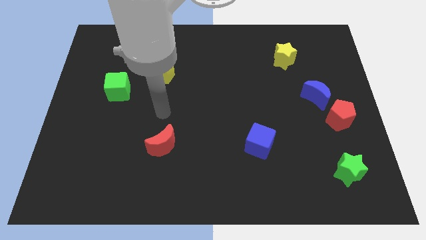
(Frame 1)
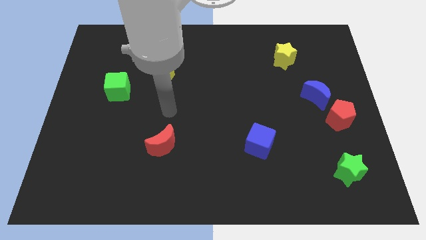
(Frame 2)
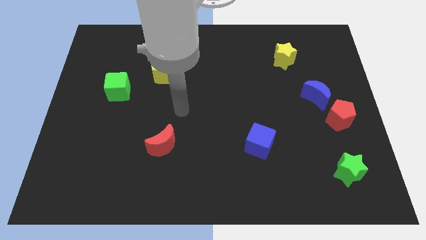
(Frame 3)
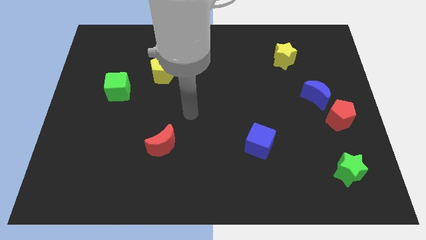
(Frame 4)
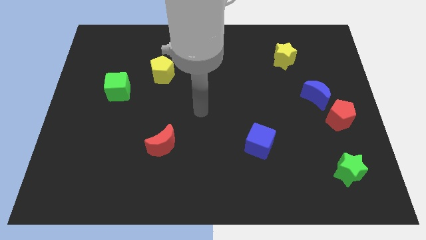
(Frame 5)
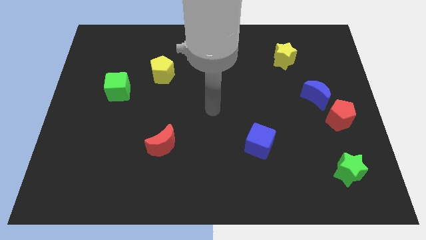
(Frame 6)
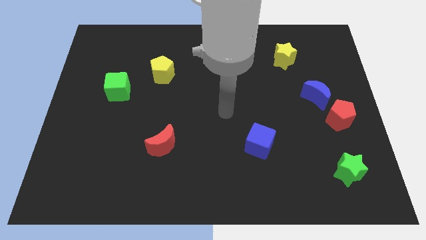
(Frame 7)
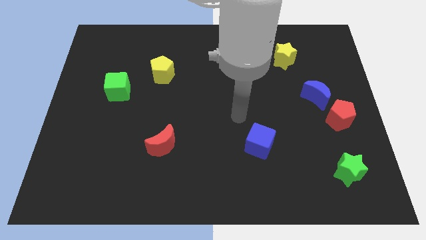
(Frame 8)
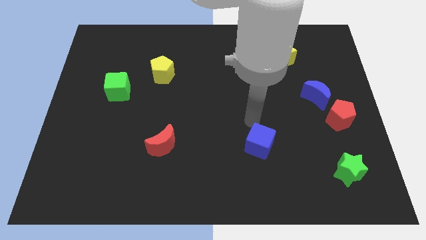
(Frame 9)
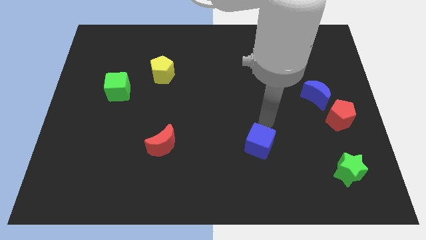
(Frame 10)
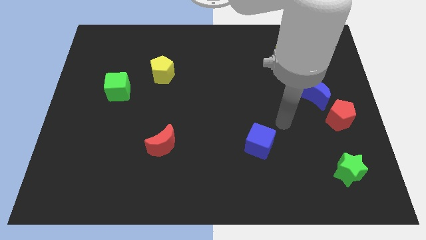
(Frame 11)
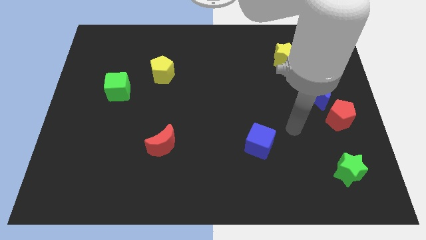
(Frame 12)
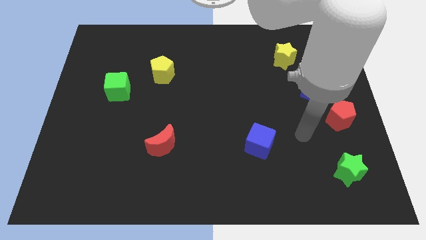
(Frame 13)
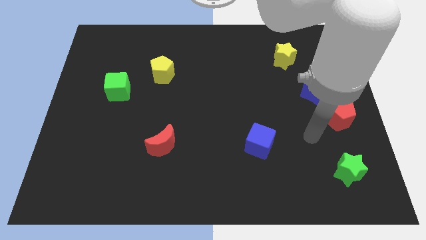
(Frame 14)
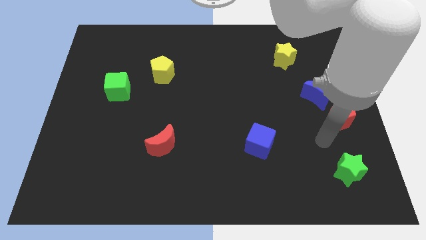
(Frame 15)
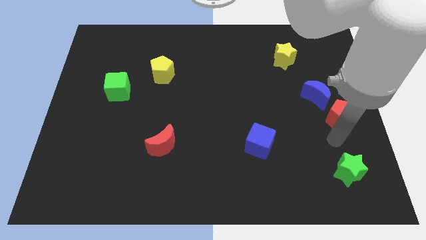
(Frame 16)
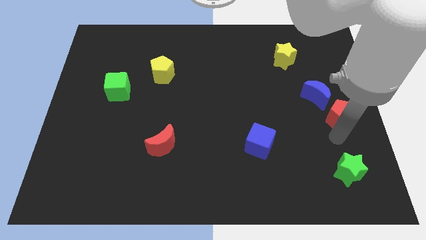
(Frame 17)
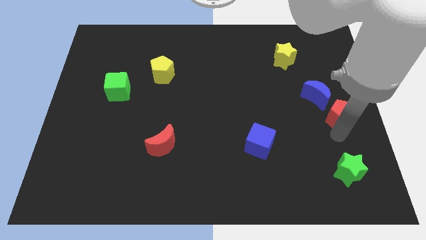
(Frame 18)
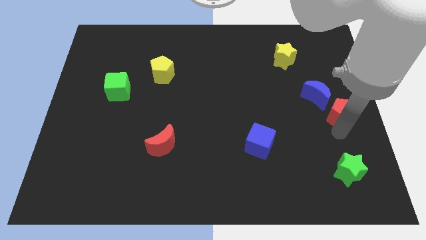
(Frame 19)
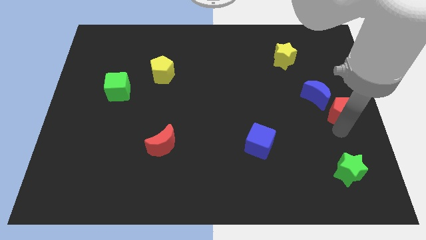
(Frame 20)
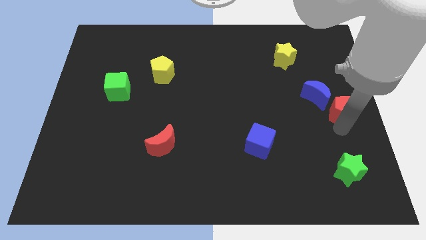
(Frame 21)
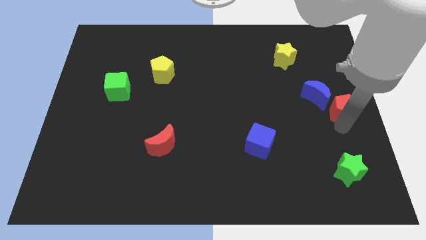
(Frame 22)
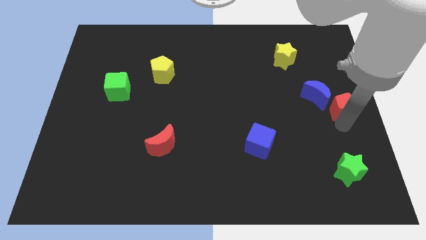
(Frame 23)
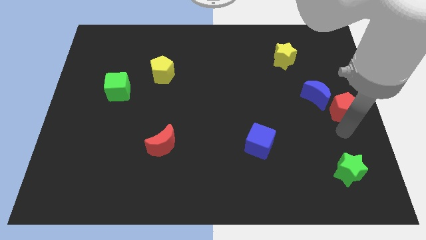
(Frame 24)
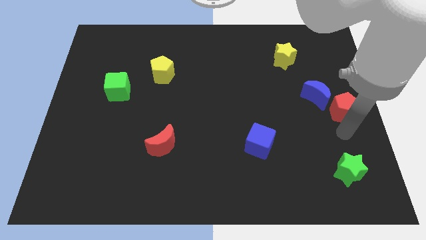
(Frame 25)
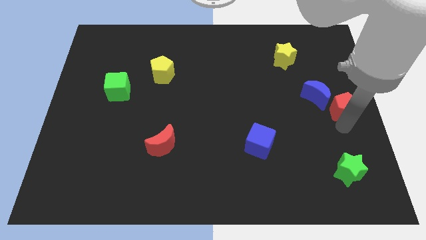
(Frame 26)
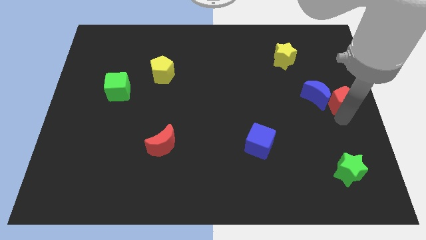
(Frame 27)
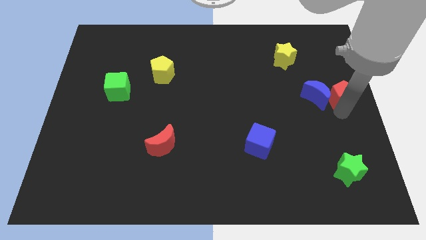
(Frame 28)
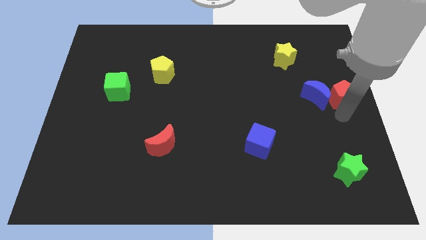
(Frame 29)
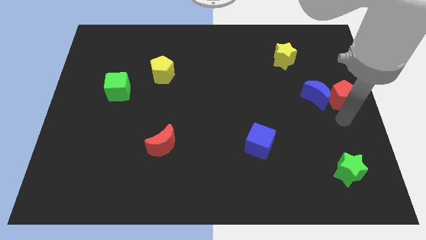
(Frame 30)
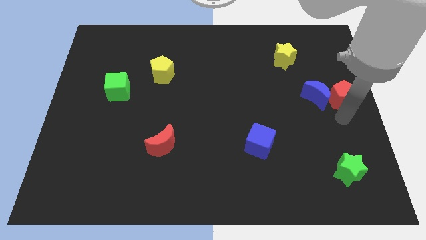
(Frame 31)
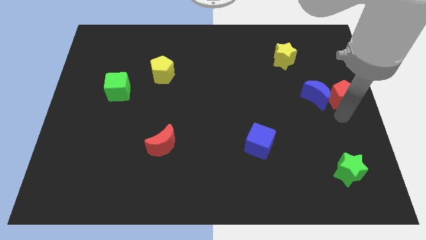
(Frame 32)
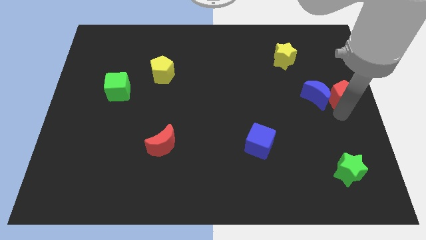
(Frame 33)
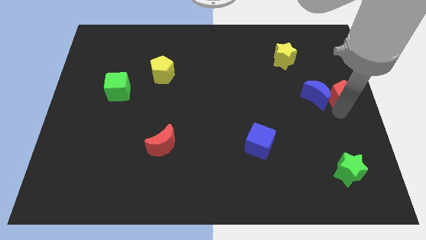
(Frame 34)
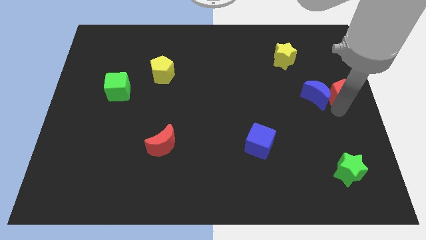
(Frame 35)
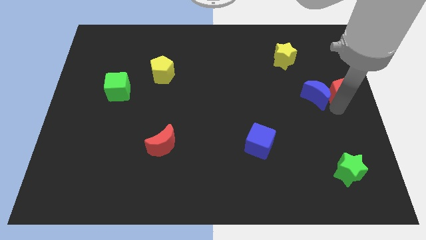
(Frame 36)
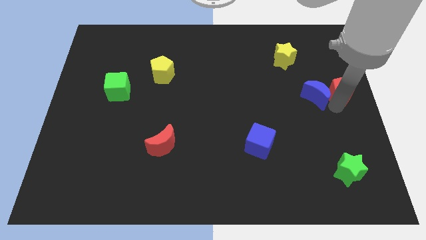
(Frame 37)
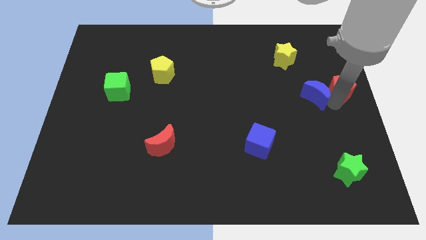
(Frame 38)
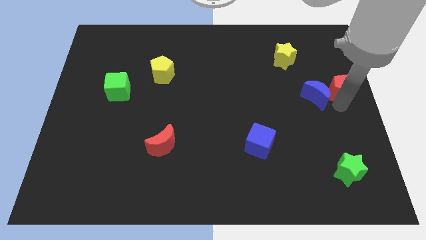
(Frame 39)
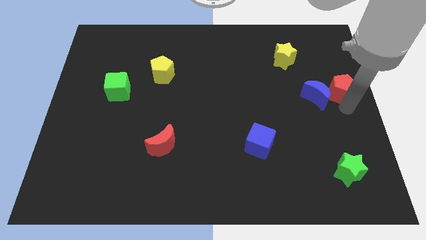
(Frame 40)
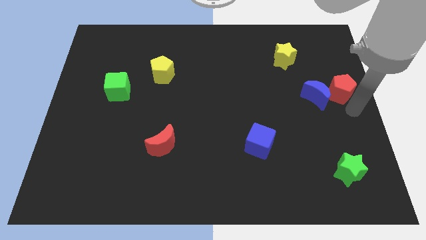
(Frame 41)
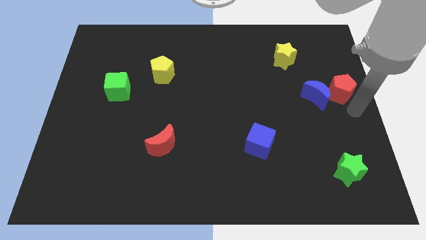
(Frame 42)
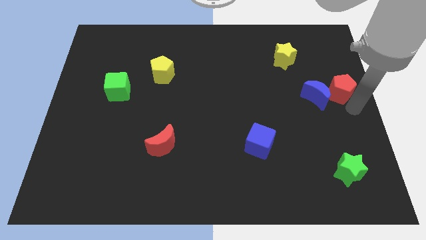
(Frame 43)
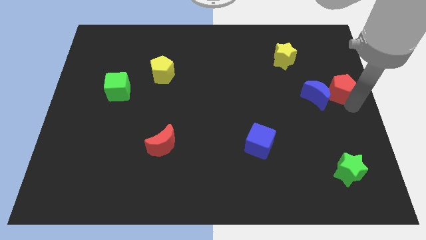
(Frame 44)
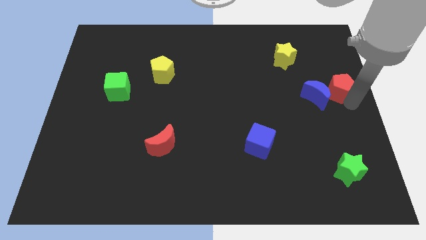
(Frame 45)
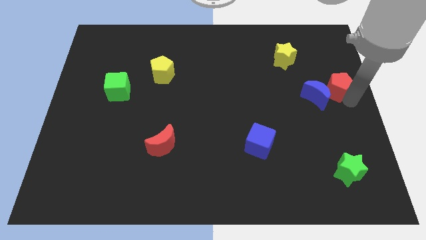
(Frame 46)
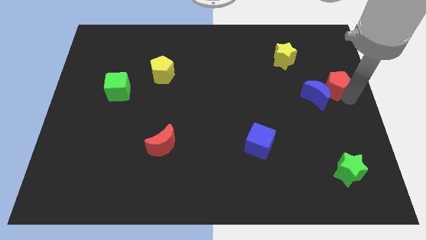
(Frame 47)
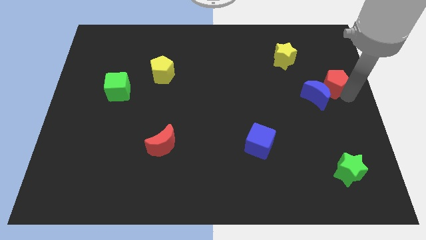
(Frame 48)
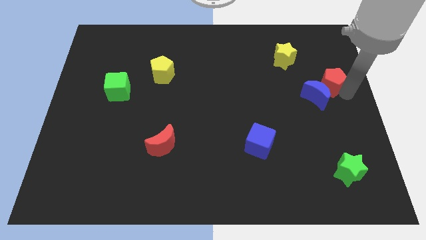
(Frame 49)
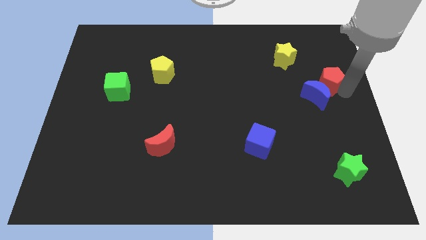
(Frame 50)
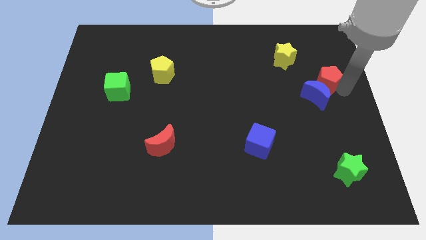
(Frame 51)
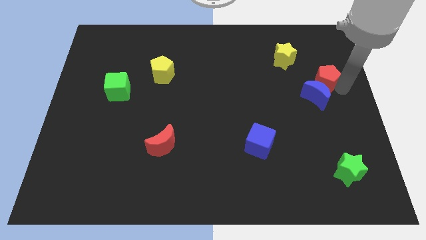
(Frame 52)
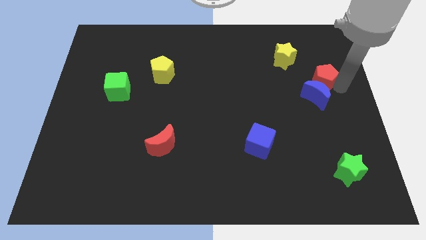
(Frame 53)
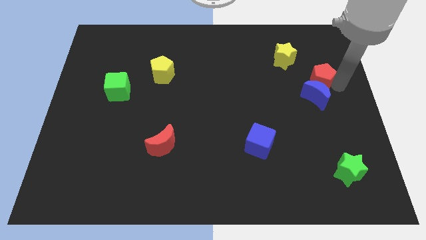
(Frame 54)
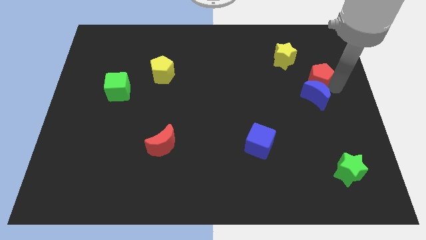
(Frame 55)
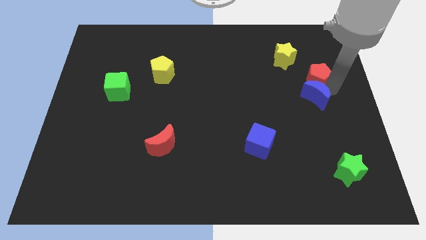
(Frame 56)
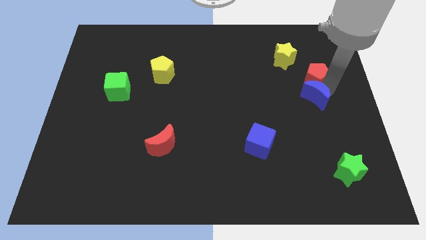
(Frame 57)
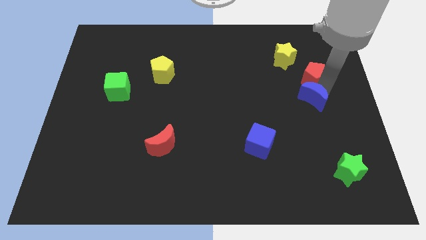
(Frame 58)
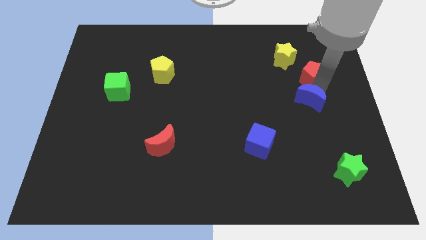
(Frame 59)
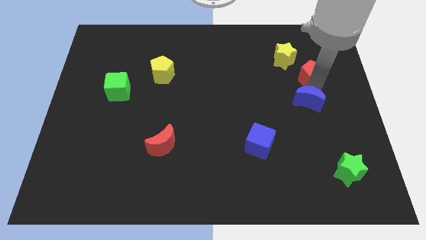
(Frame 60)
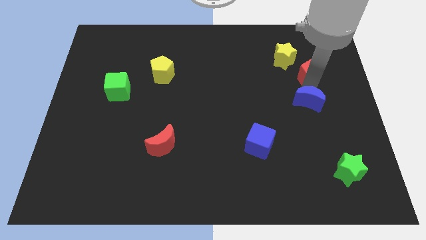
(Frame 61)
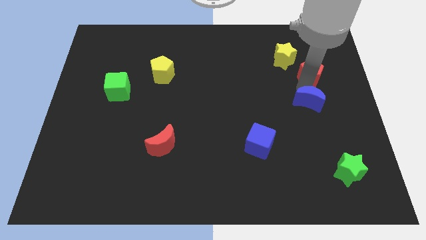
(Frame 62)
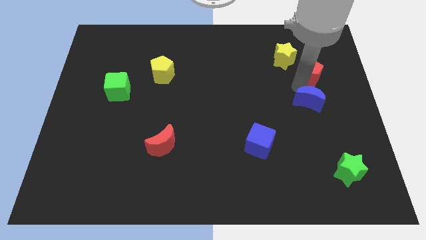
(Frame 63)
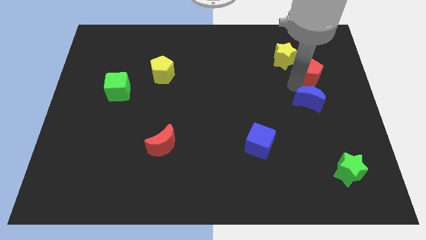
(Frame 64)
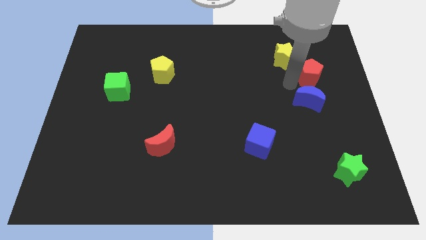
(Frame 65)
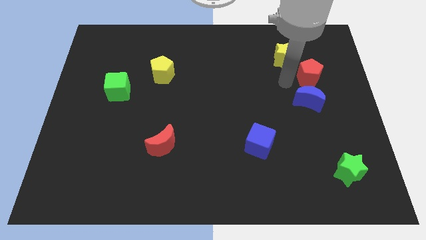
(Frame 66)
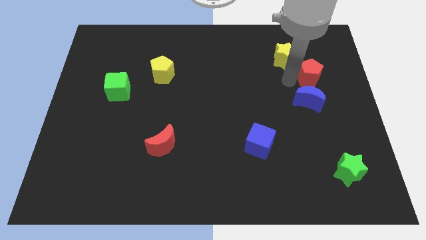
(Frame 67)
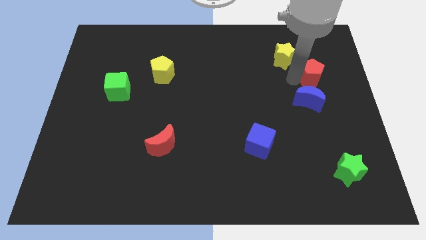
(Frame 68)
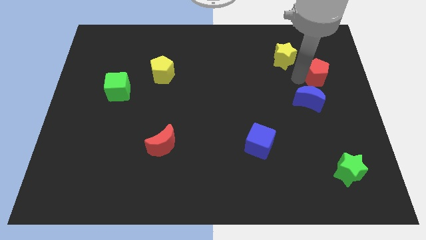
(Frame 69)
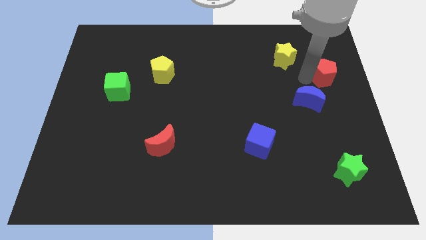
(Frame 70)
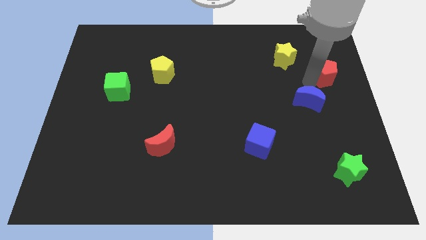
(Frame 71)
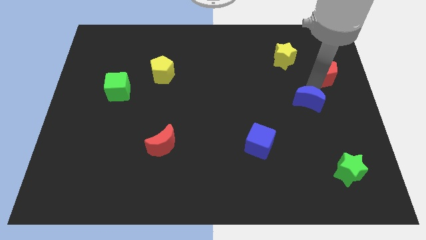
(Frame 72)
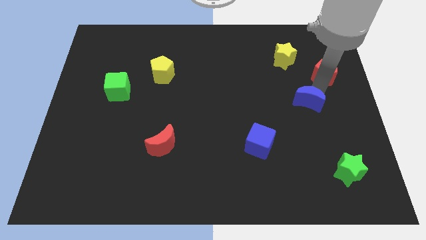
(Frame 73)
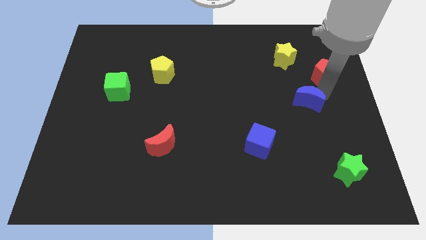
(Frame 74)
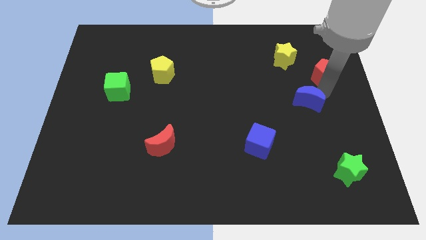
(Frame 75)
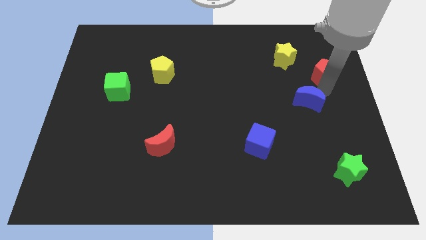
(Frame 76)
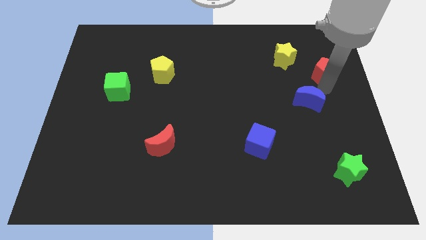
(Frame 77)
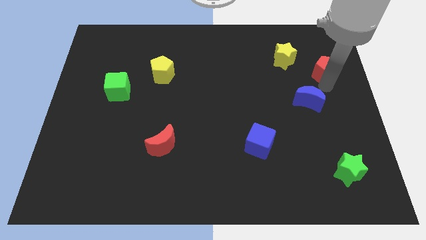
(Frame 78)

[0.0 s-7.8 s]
push the red pentagon right of the yellow star
